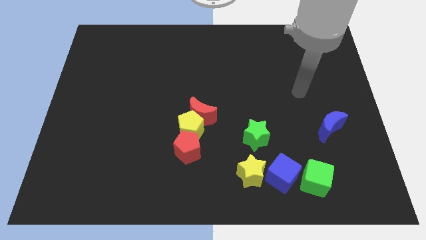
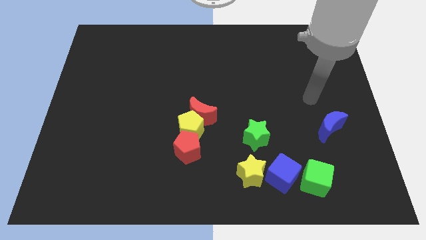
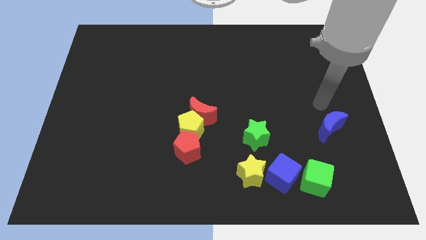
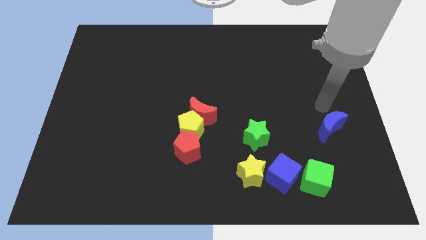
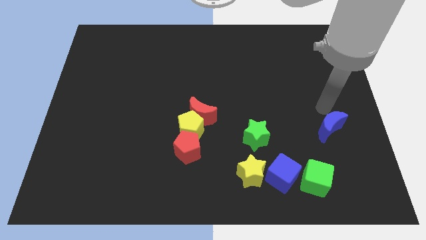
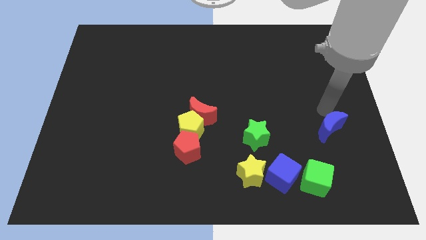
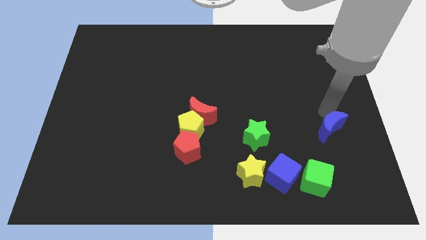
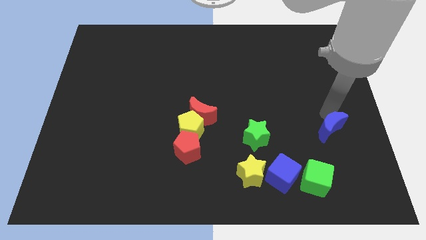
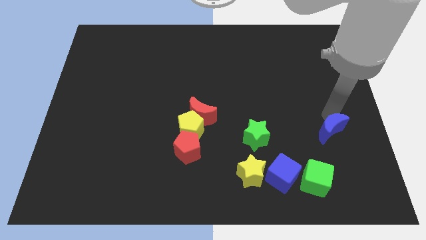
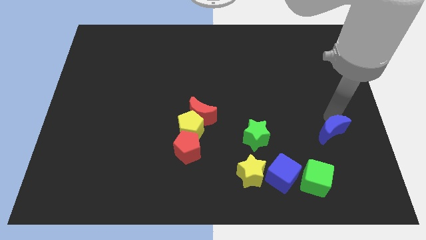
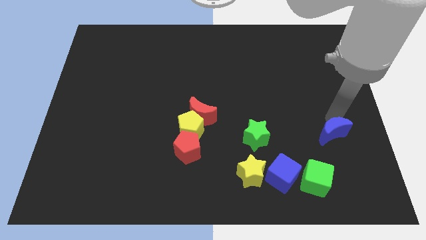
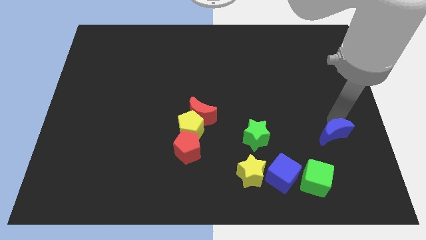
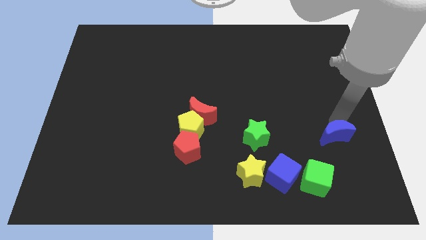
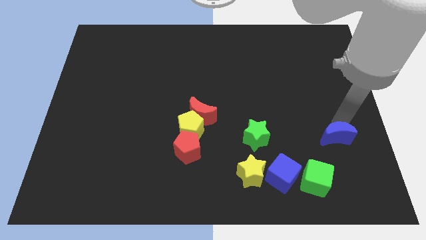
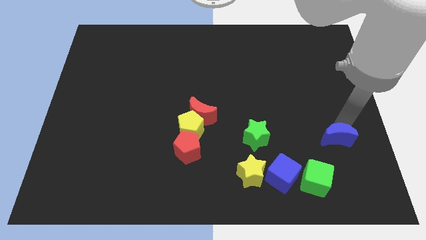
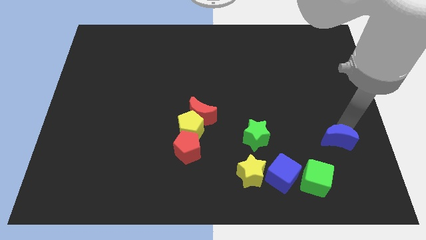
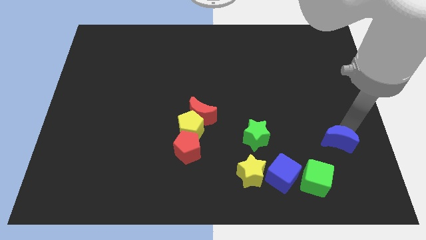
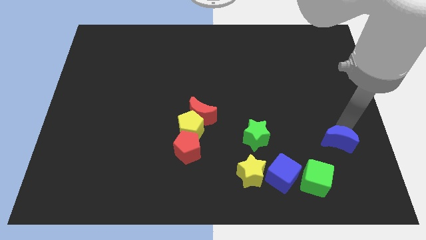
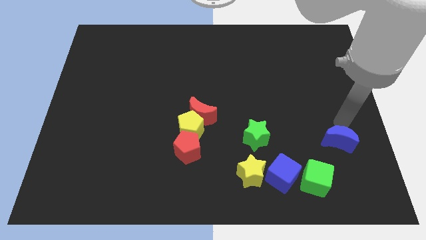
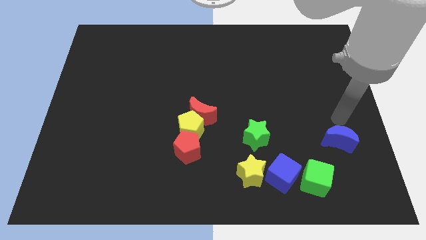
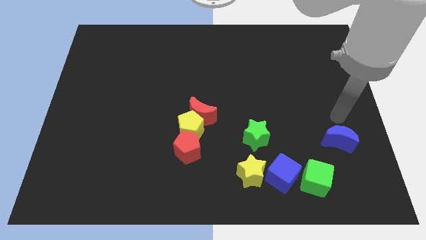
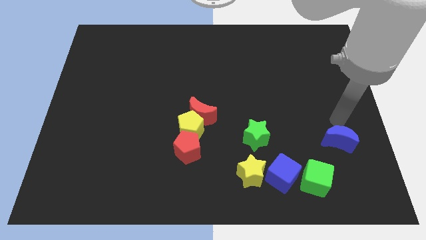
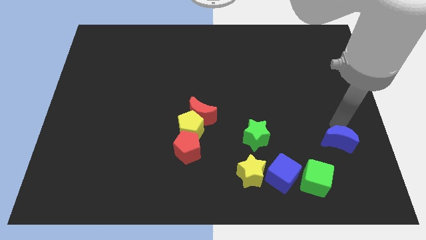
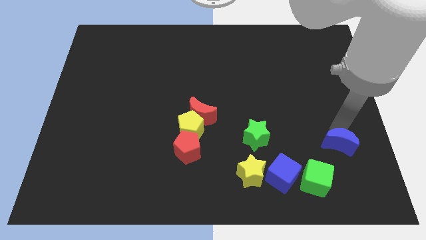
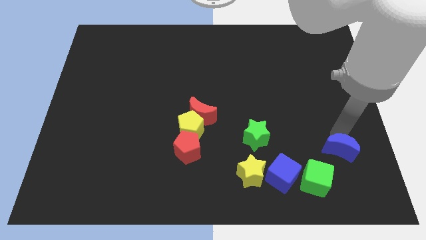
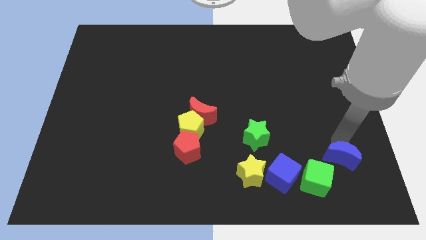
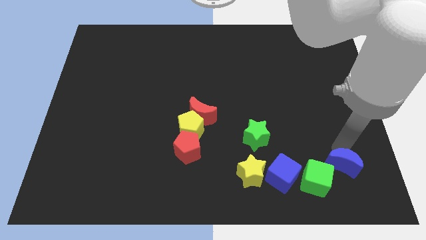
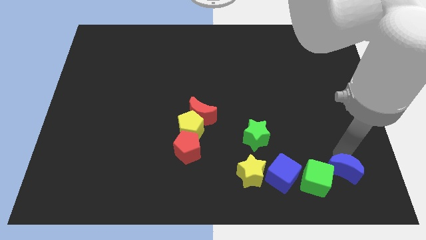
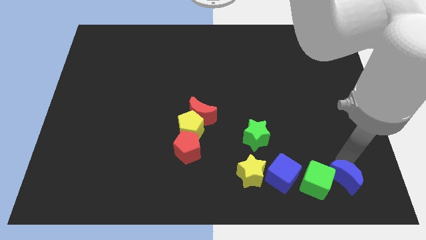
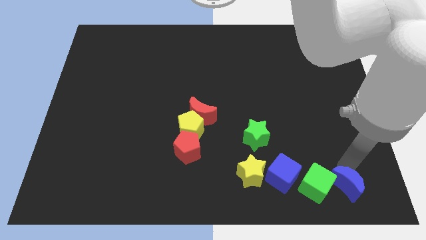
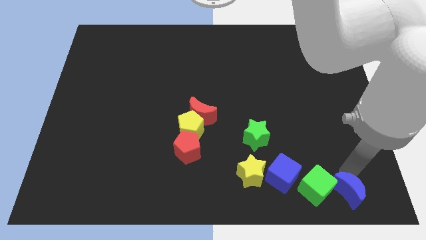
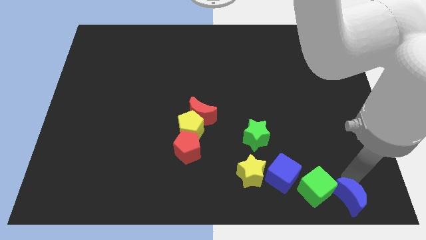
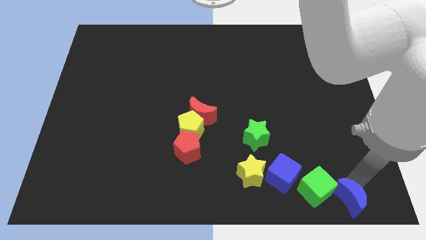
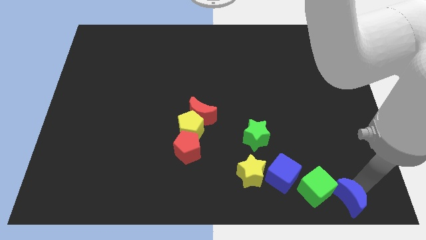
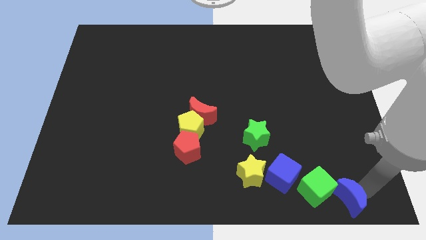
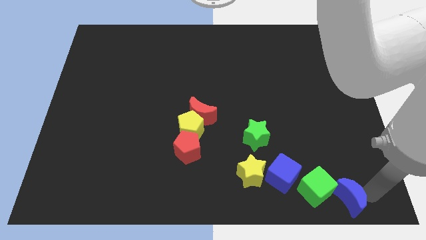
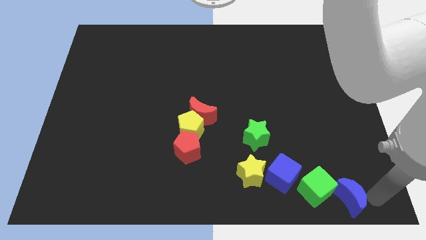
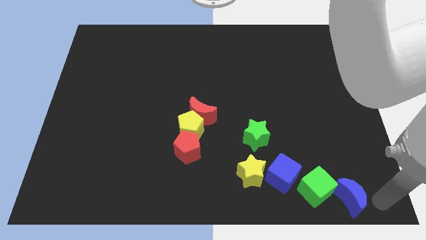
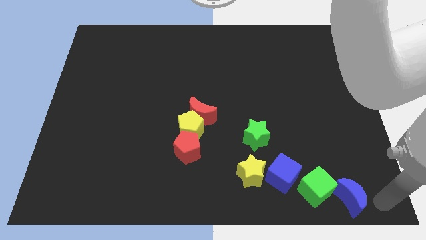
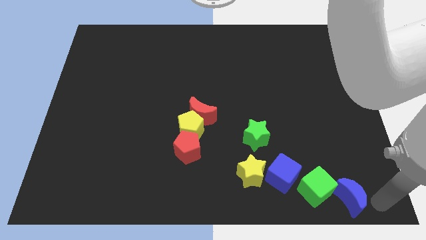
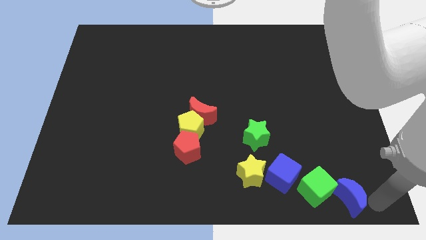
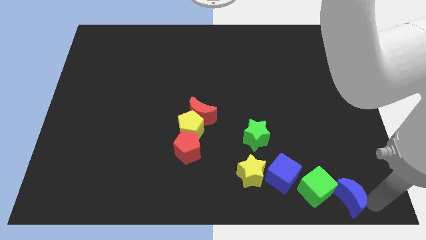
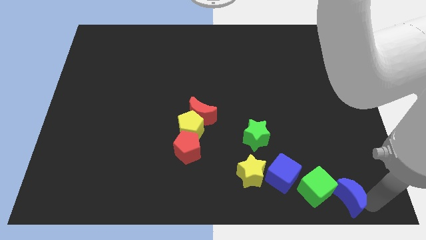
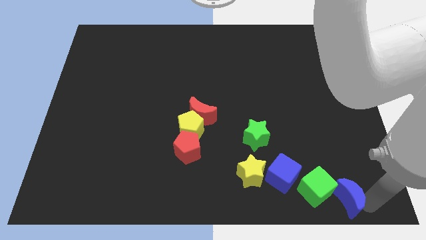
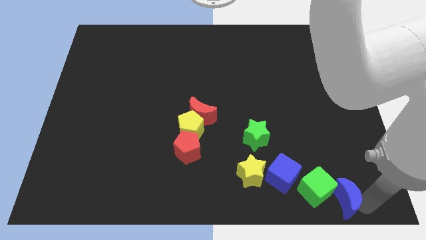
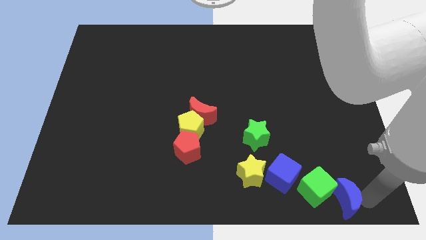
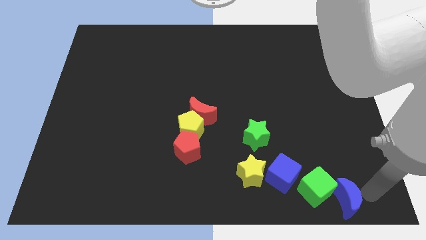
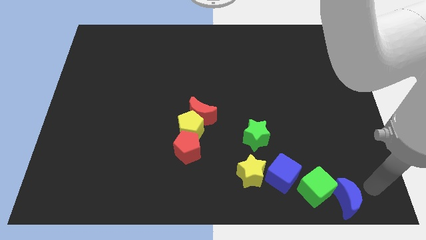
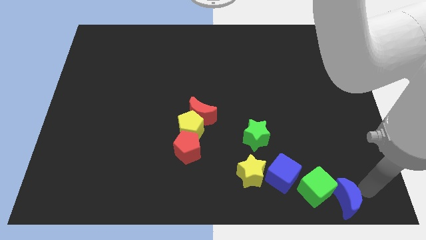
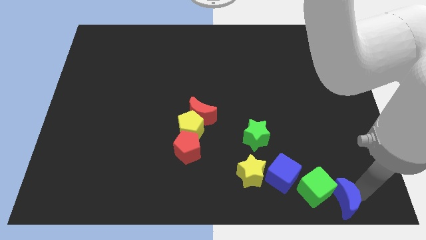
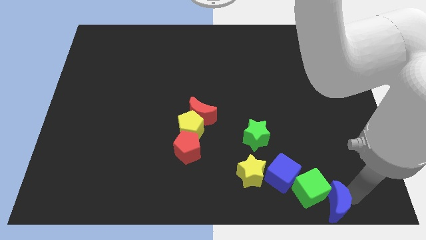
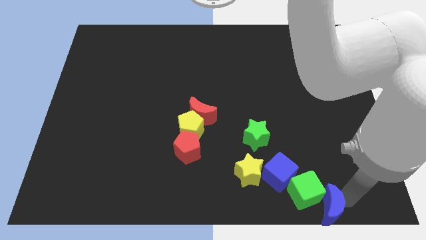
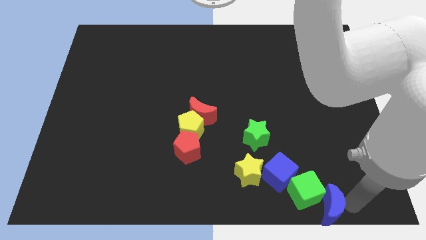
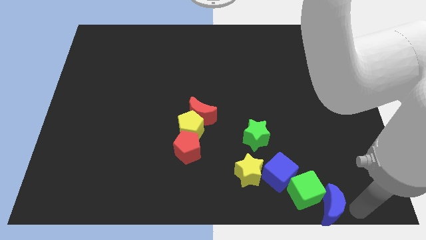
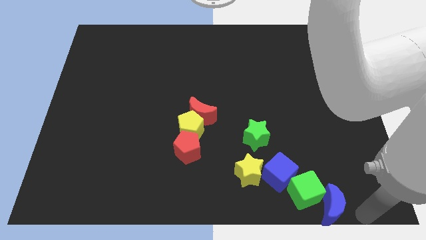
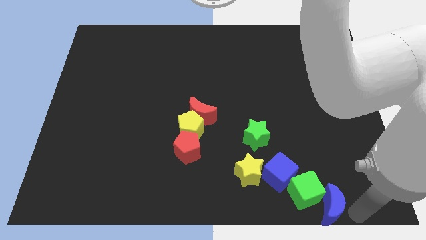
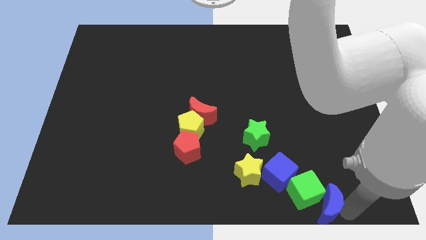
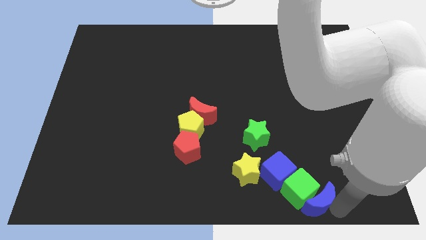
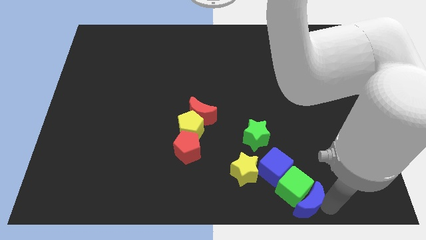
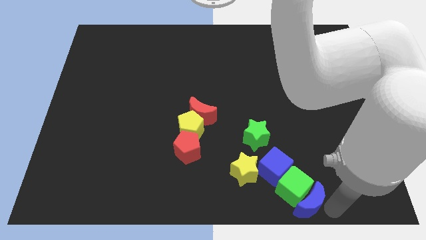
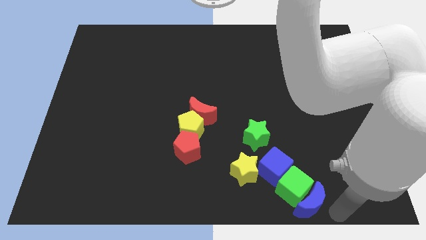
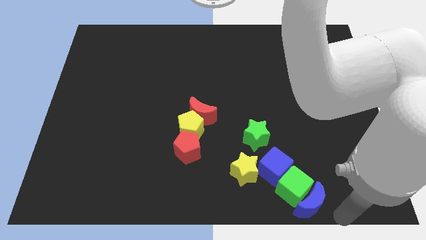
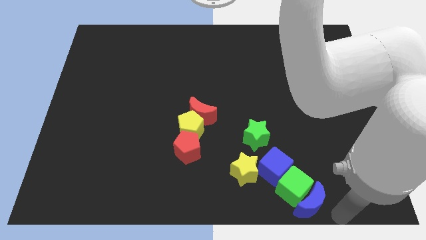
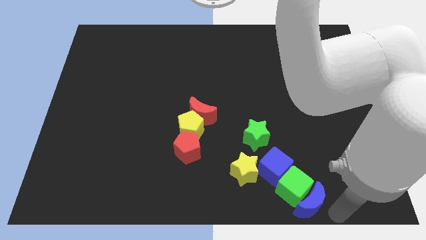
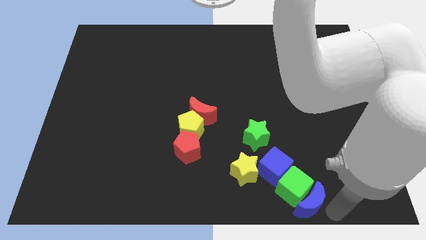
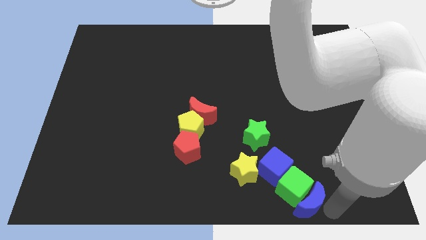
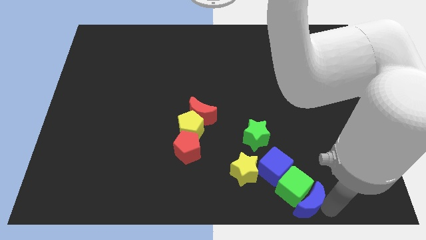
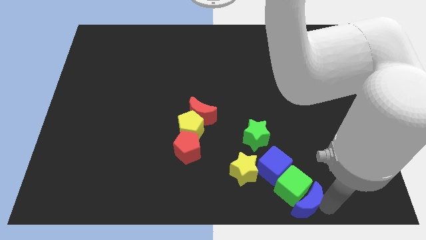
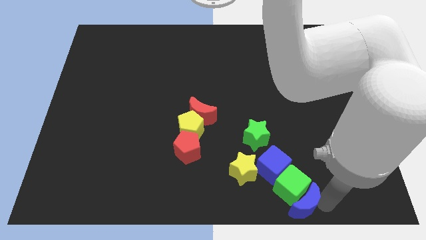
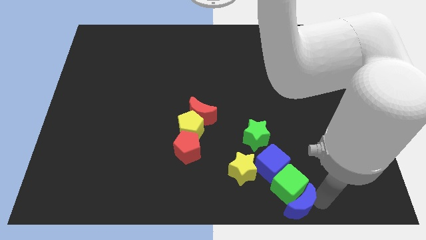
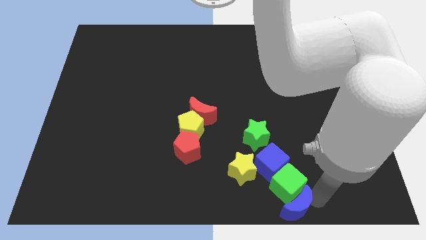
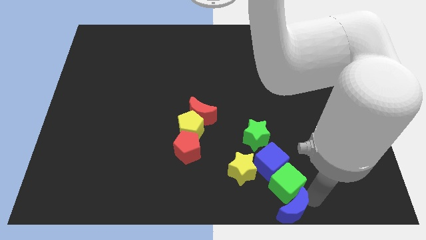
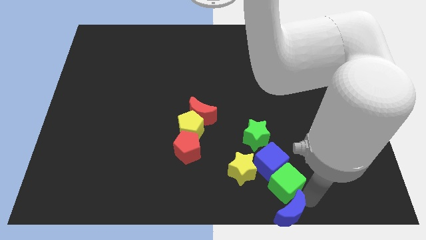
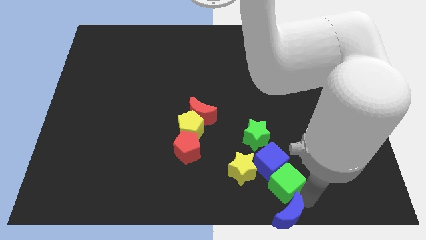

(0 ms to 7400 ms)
move the blue moon to the bottom
